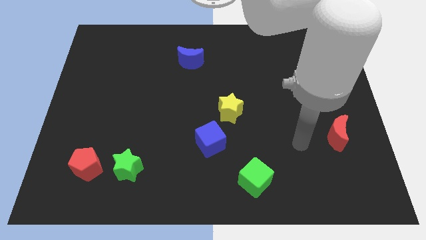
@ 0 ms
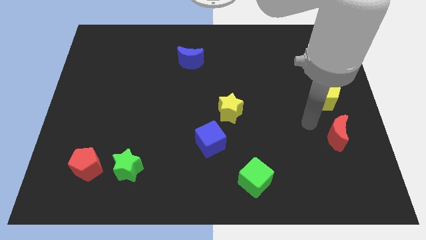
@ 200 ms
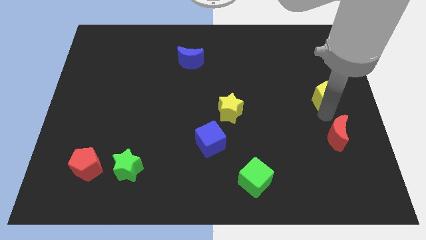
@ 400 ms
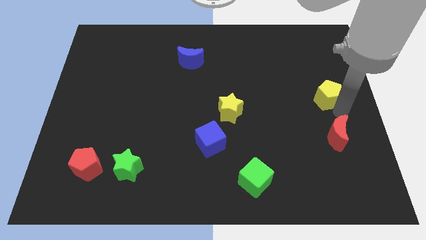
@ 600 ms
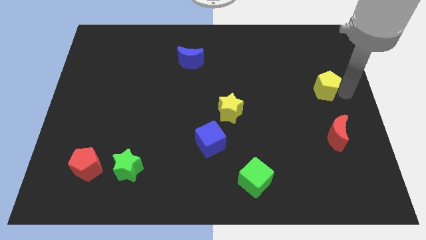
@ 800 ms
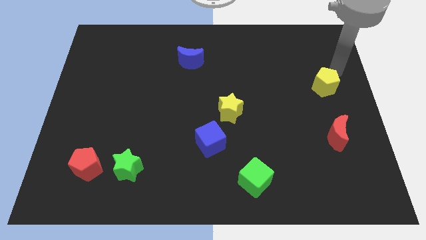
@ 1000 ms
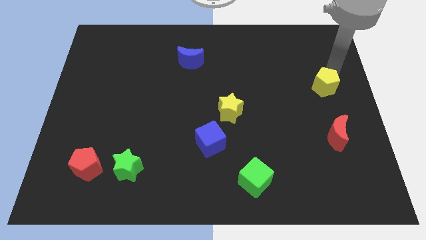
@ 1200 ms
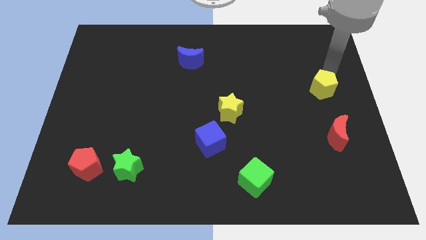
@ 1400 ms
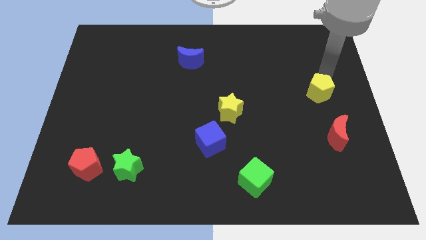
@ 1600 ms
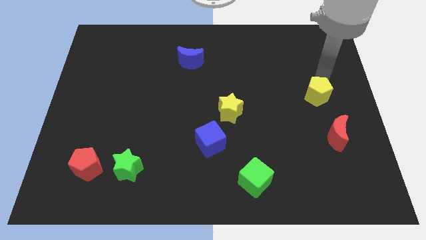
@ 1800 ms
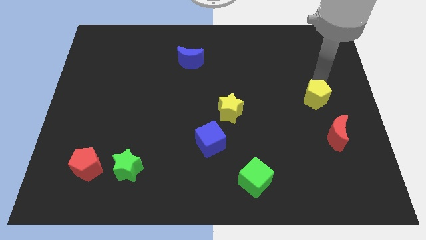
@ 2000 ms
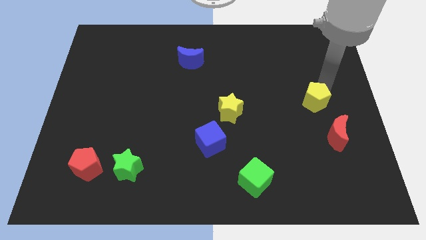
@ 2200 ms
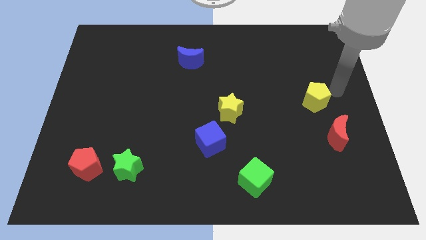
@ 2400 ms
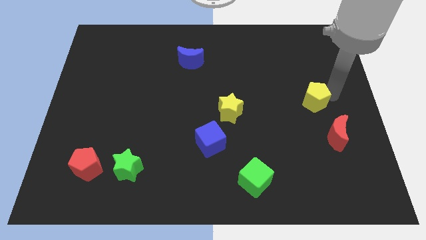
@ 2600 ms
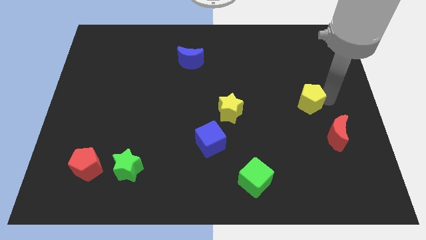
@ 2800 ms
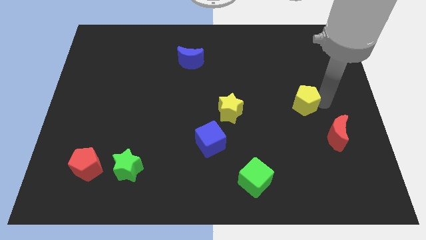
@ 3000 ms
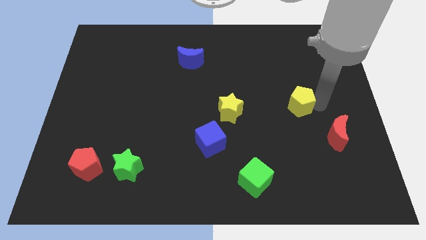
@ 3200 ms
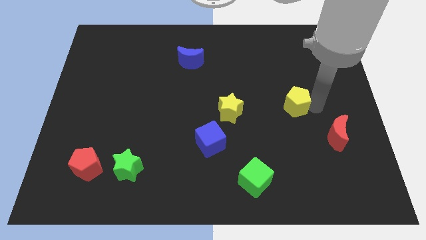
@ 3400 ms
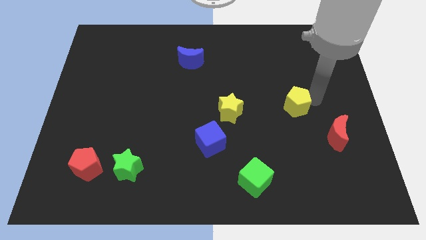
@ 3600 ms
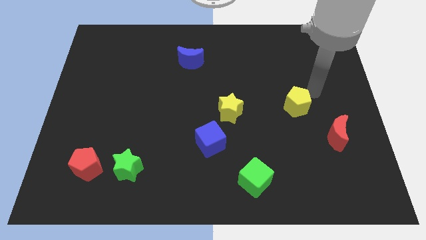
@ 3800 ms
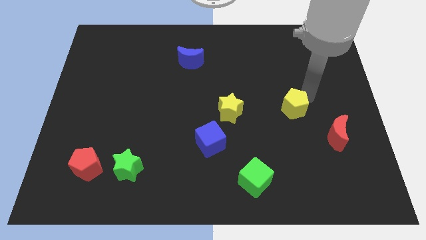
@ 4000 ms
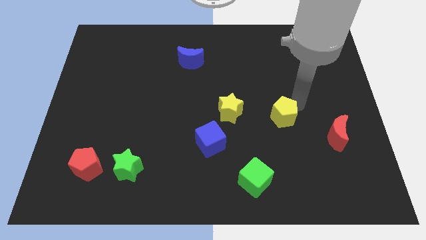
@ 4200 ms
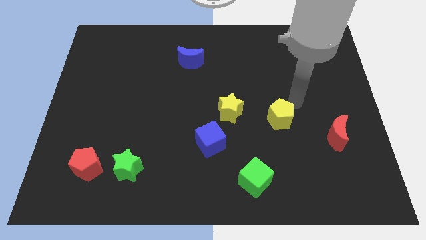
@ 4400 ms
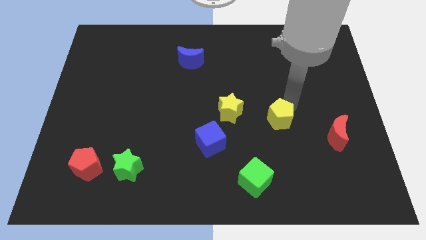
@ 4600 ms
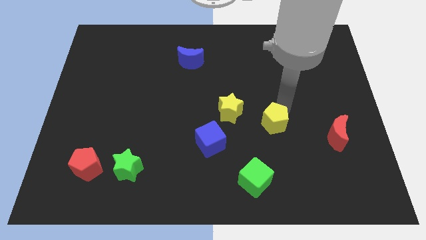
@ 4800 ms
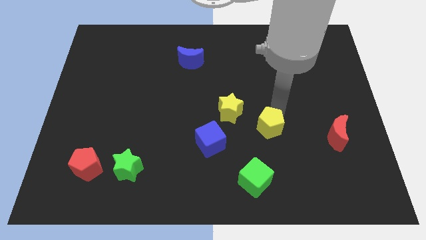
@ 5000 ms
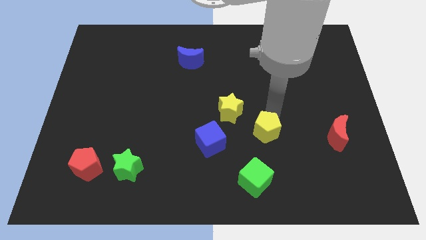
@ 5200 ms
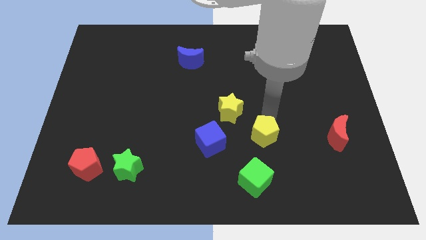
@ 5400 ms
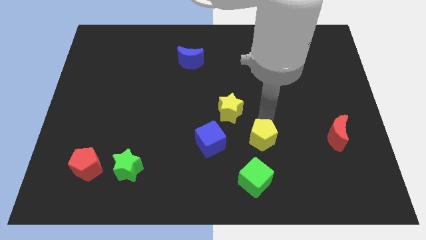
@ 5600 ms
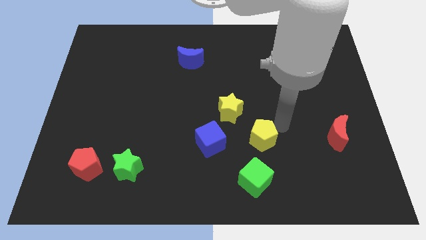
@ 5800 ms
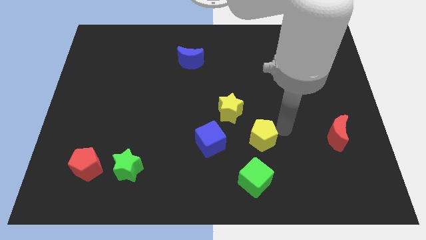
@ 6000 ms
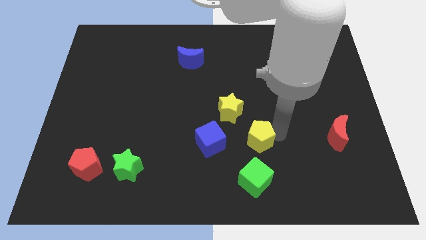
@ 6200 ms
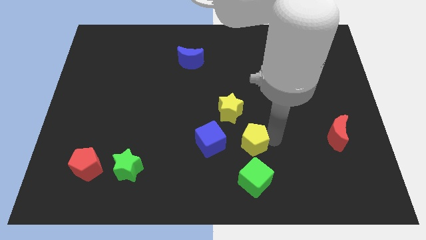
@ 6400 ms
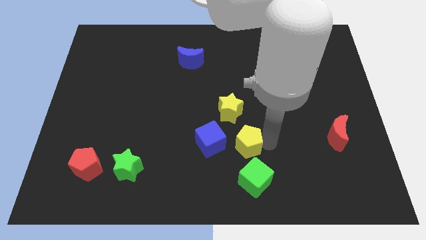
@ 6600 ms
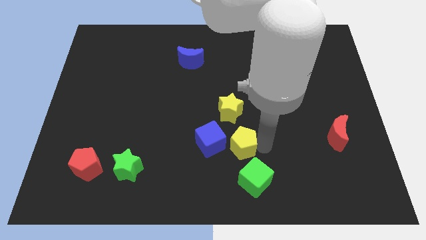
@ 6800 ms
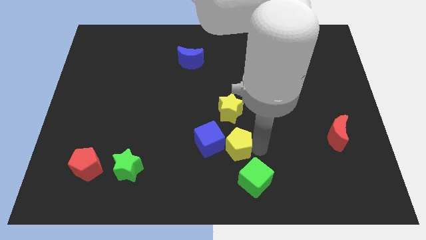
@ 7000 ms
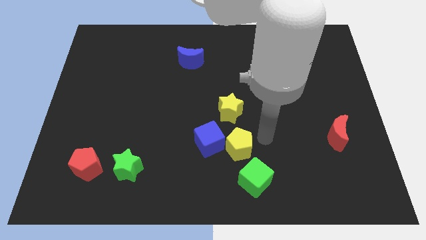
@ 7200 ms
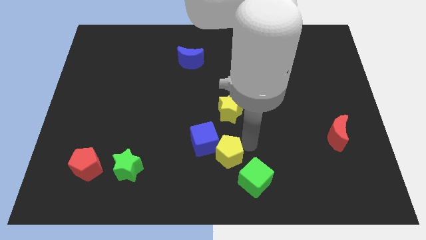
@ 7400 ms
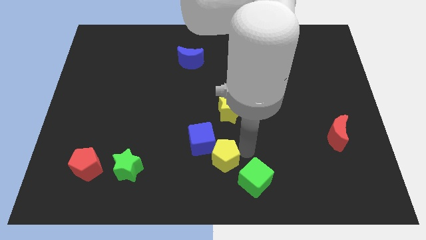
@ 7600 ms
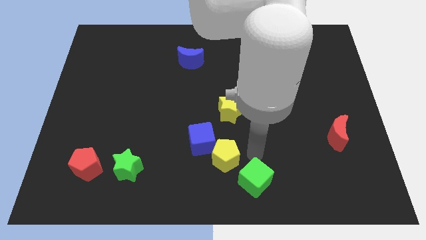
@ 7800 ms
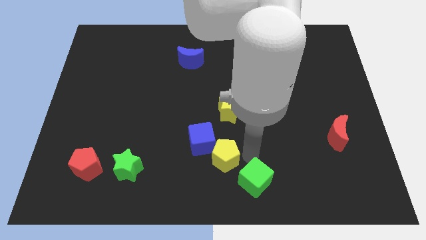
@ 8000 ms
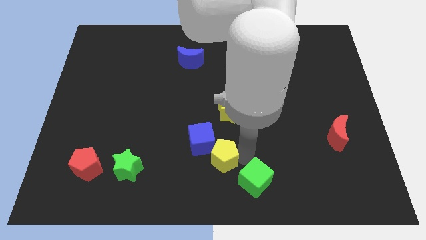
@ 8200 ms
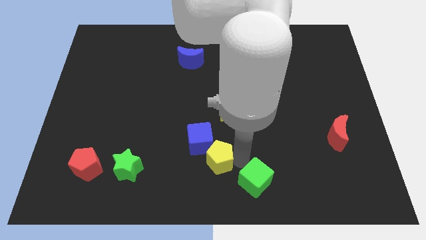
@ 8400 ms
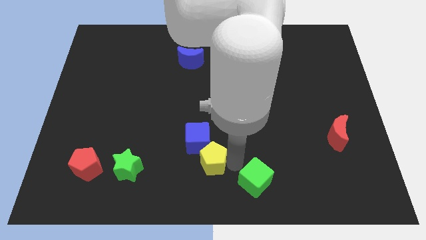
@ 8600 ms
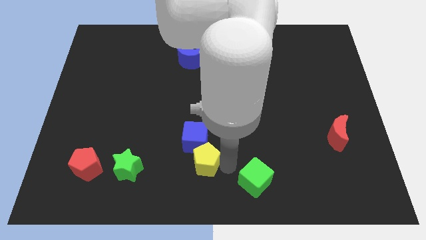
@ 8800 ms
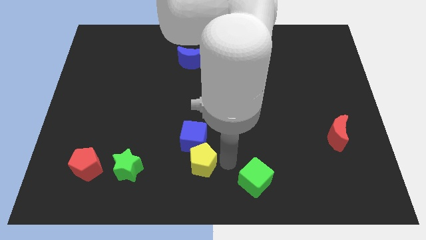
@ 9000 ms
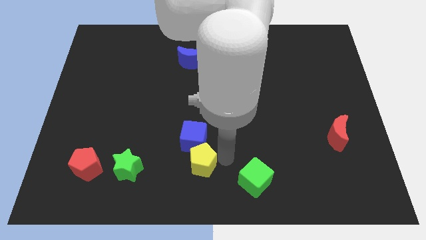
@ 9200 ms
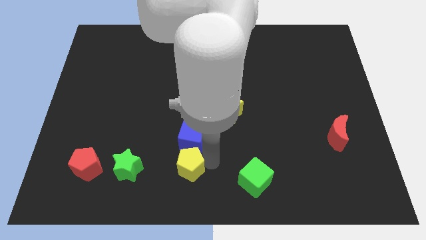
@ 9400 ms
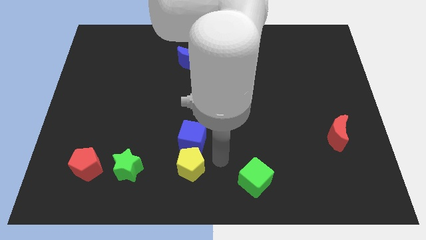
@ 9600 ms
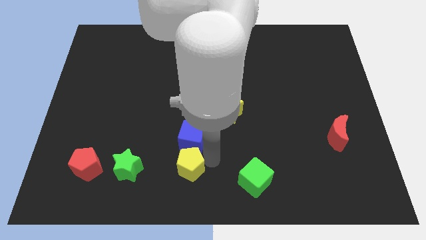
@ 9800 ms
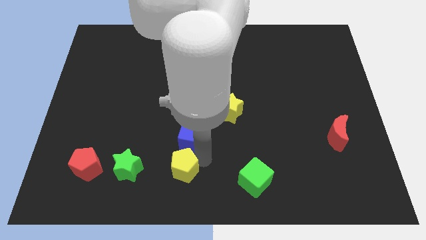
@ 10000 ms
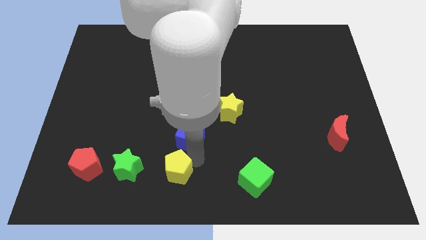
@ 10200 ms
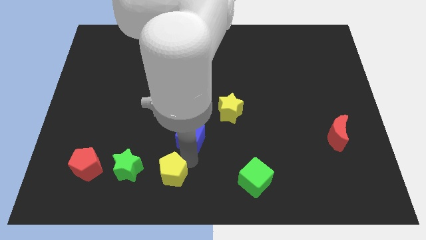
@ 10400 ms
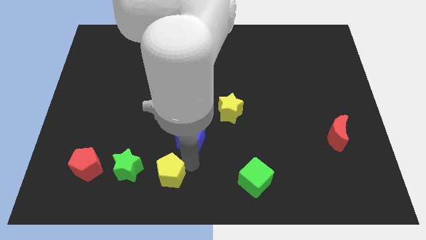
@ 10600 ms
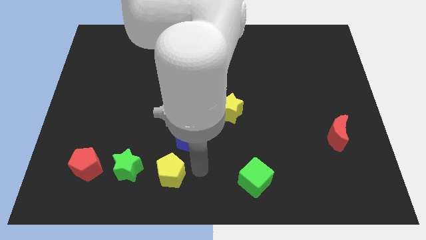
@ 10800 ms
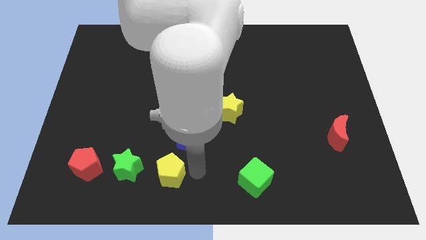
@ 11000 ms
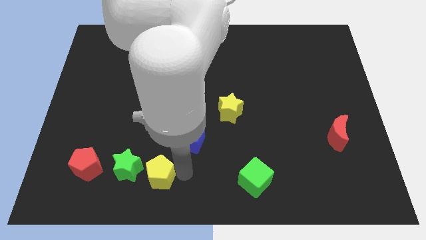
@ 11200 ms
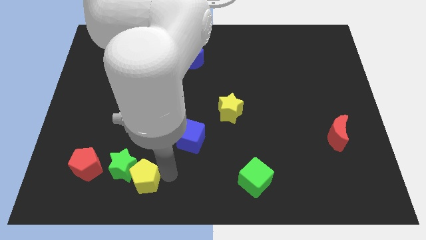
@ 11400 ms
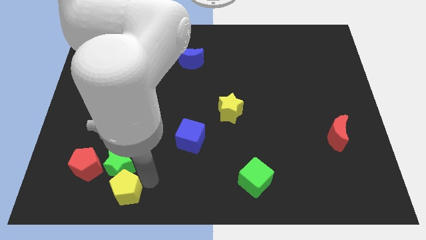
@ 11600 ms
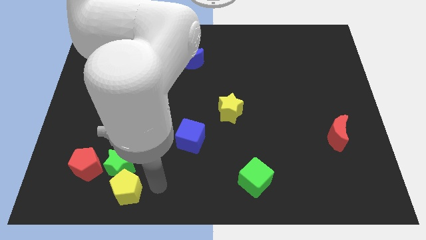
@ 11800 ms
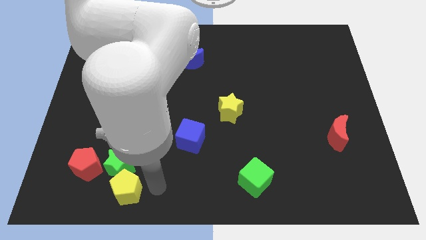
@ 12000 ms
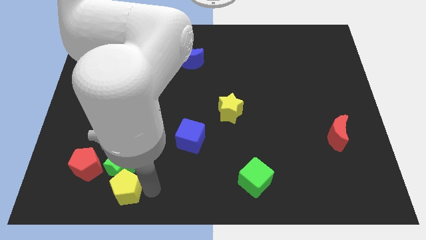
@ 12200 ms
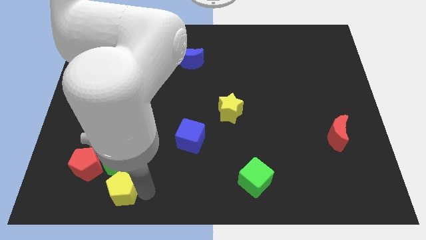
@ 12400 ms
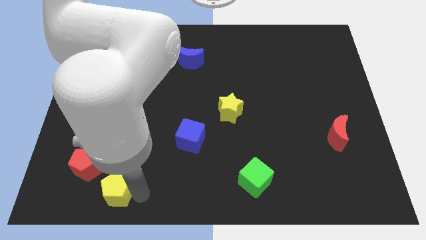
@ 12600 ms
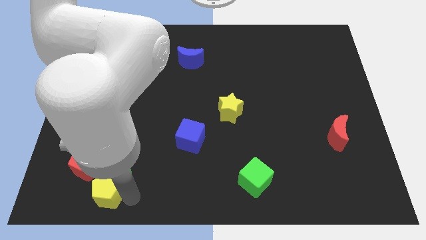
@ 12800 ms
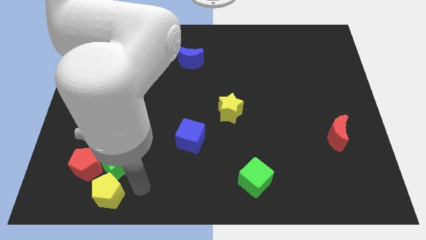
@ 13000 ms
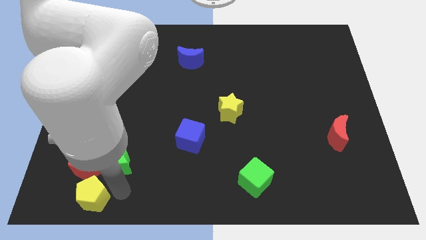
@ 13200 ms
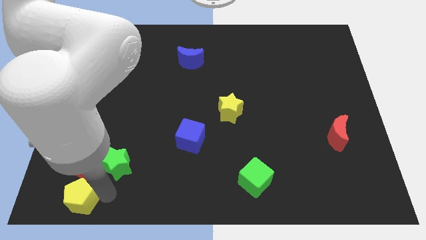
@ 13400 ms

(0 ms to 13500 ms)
slide the yellow pentagon to the bottom left corner

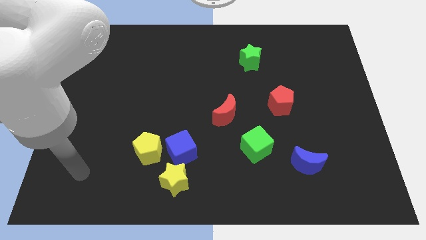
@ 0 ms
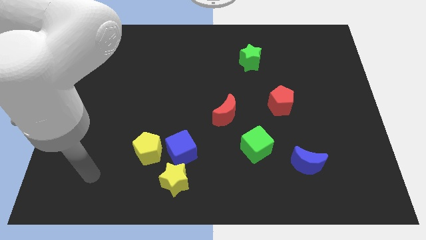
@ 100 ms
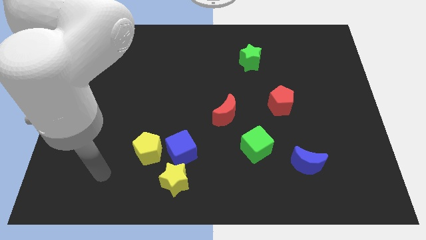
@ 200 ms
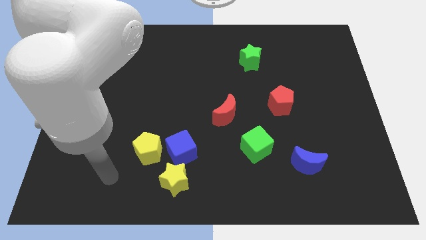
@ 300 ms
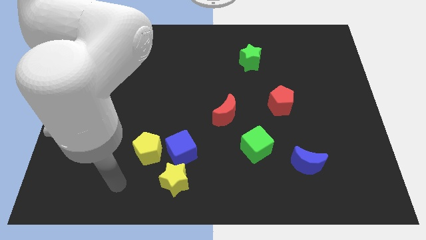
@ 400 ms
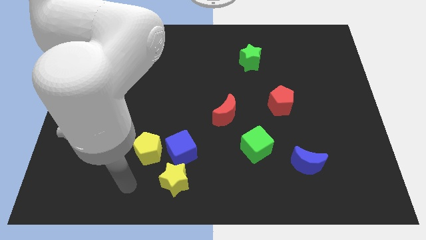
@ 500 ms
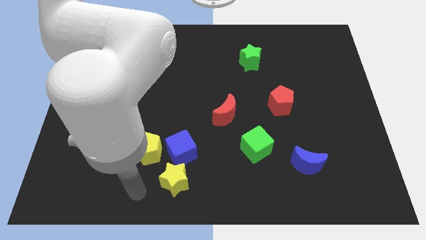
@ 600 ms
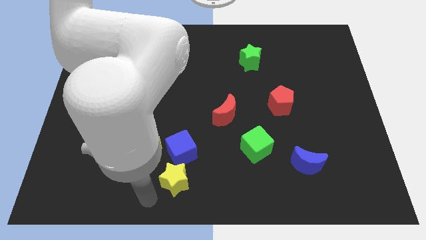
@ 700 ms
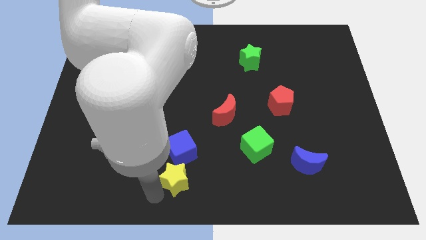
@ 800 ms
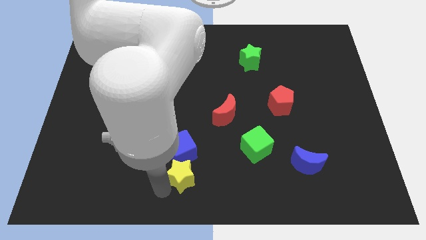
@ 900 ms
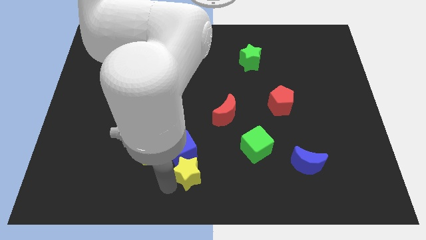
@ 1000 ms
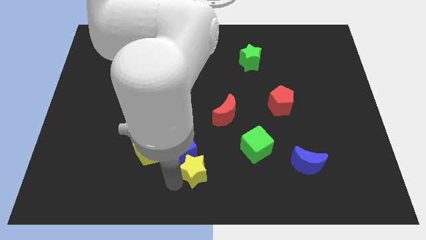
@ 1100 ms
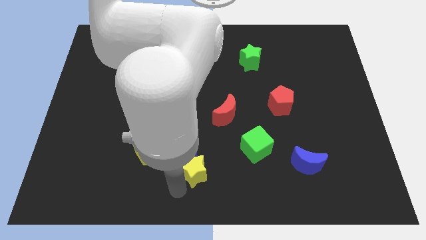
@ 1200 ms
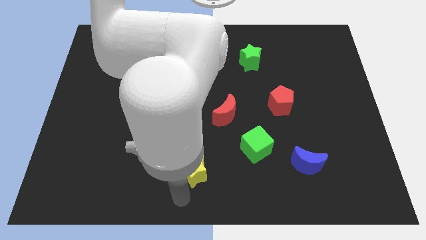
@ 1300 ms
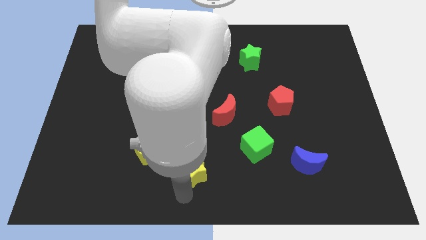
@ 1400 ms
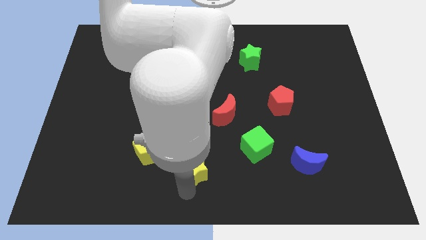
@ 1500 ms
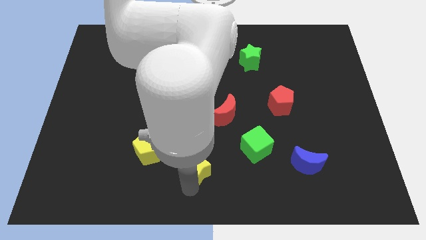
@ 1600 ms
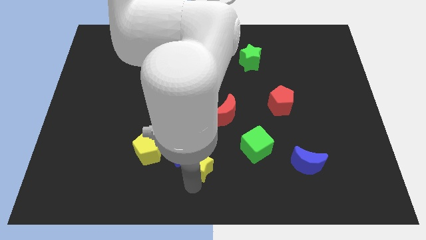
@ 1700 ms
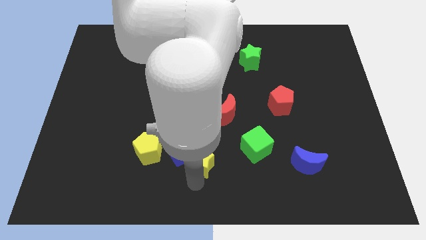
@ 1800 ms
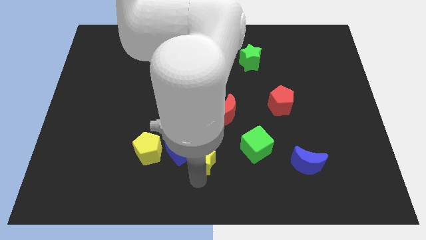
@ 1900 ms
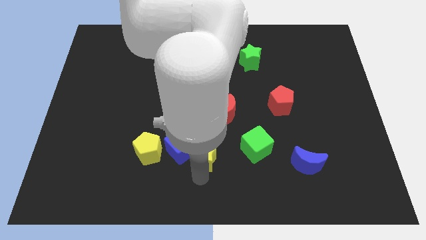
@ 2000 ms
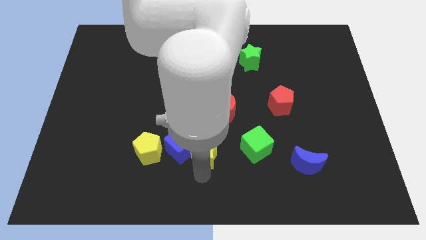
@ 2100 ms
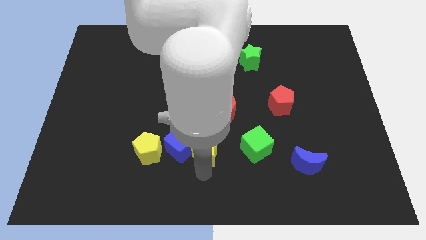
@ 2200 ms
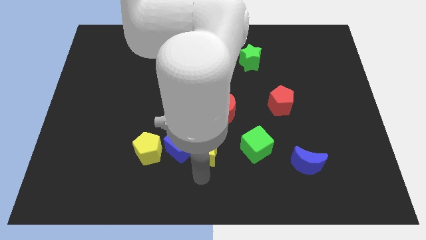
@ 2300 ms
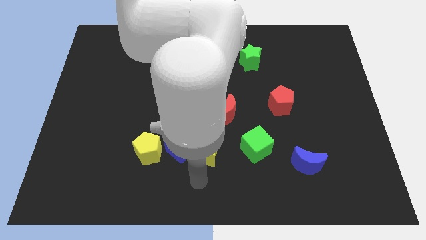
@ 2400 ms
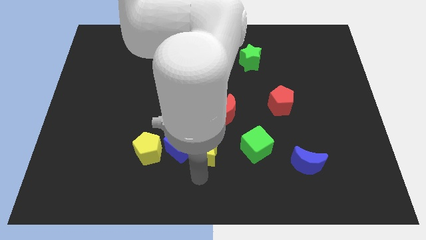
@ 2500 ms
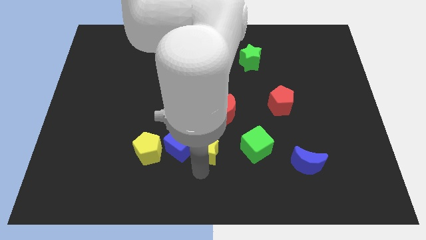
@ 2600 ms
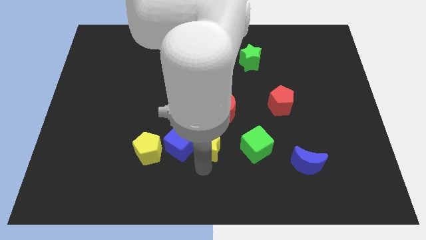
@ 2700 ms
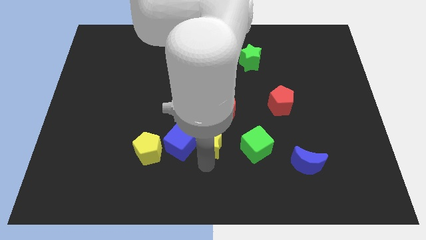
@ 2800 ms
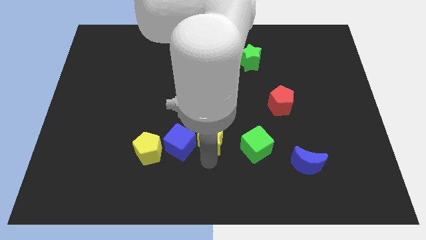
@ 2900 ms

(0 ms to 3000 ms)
move the yellow star to the center
